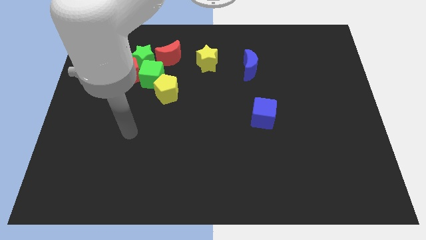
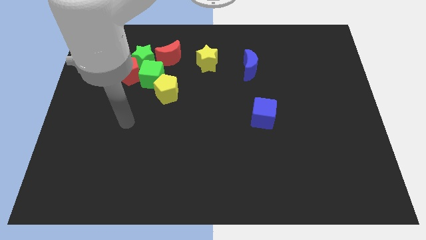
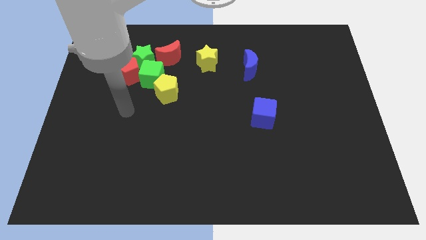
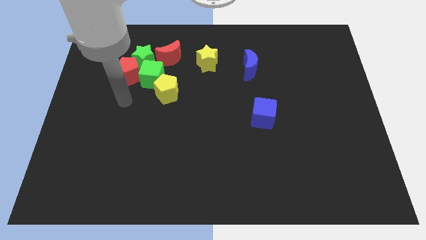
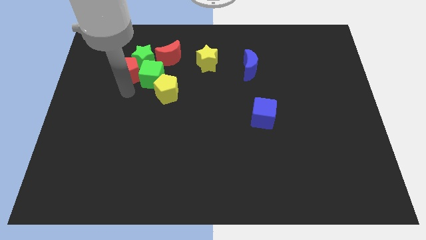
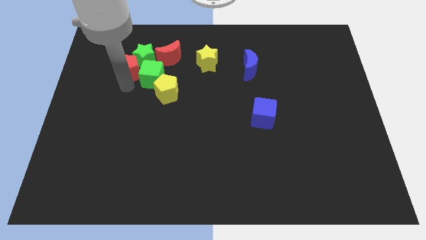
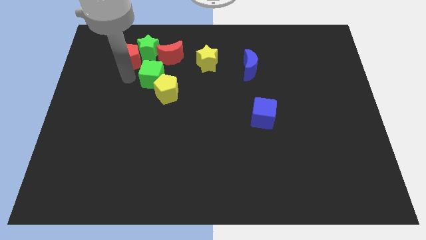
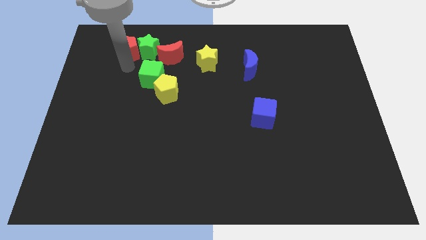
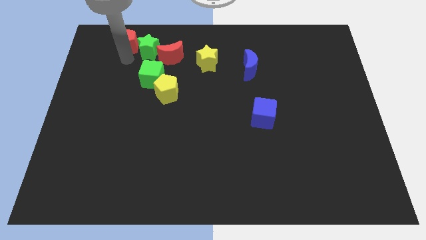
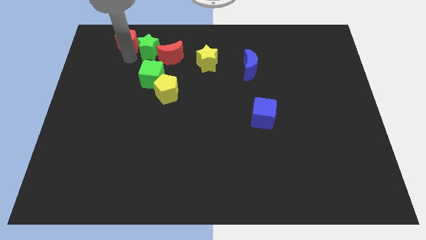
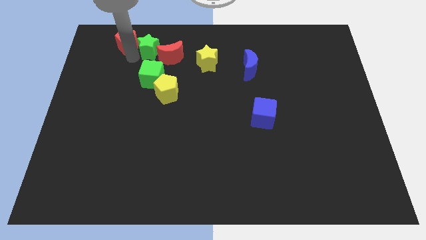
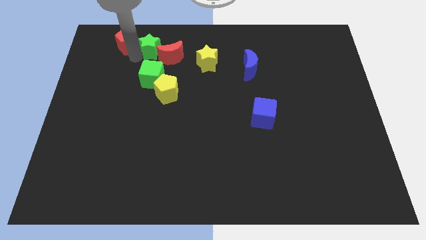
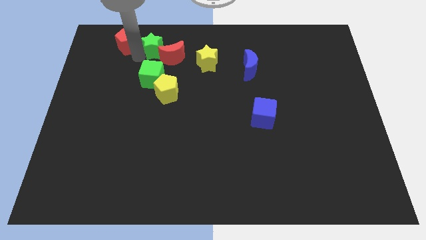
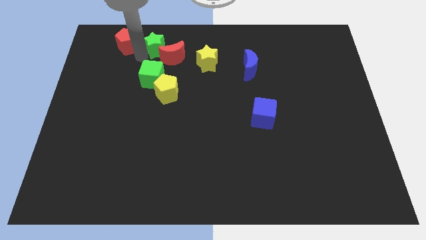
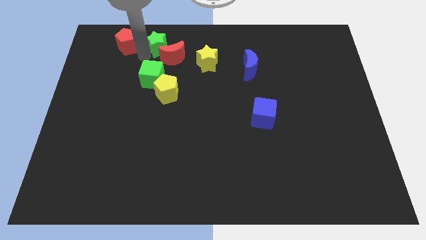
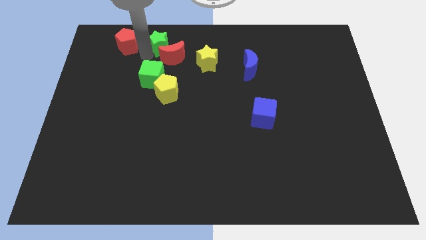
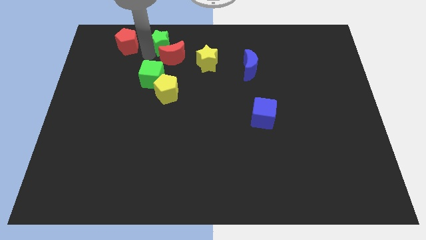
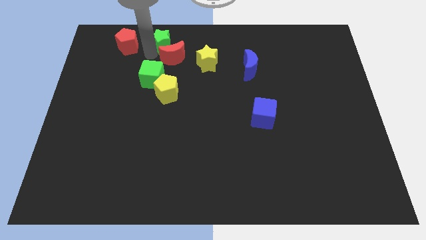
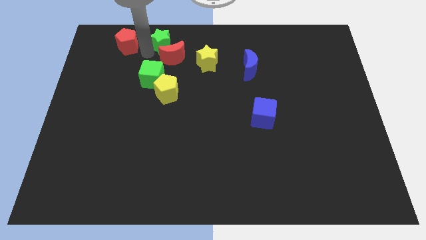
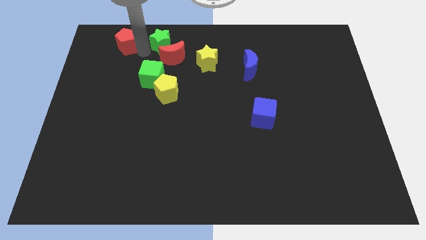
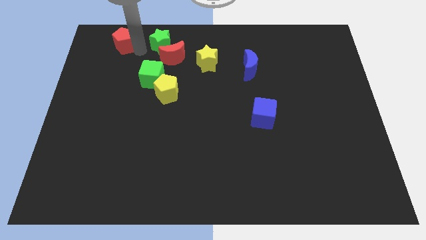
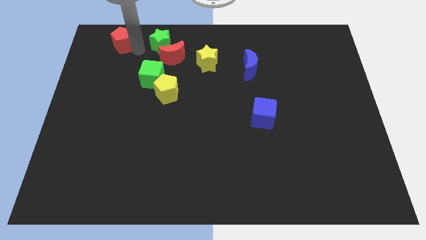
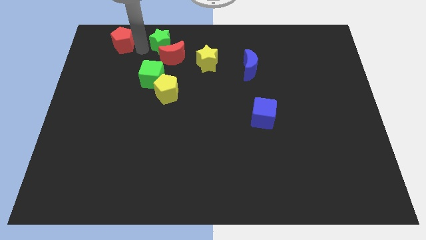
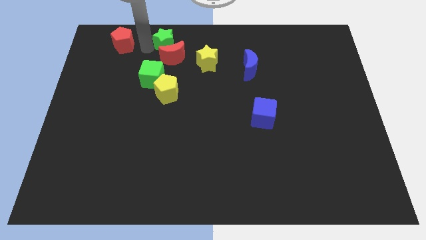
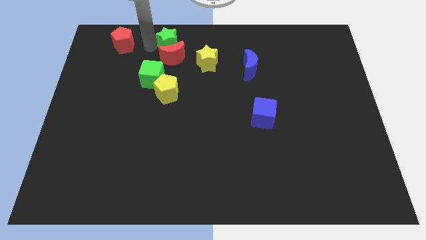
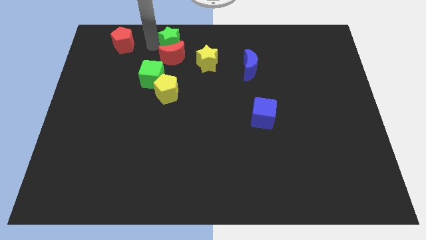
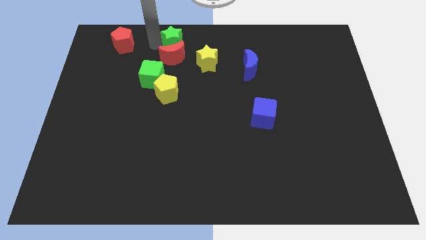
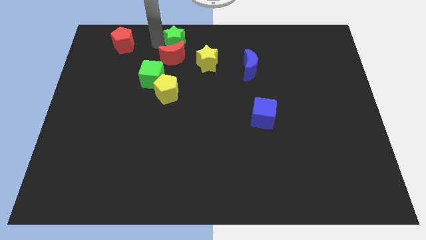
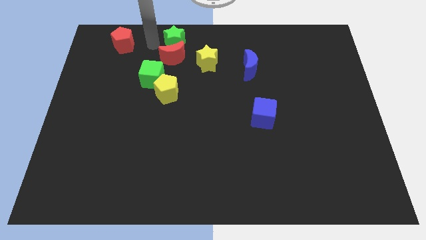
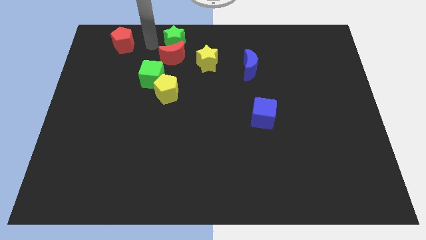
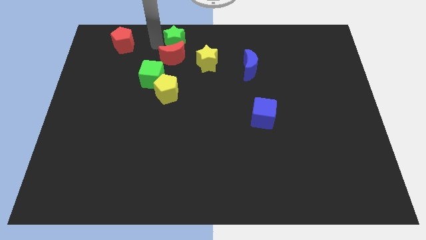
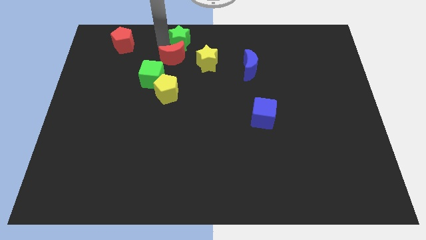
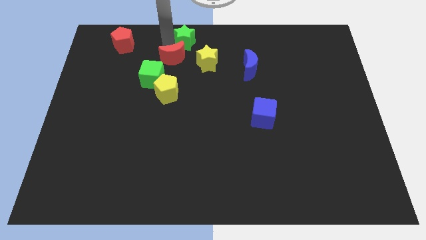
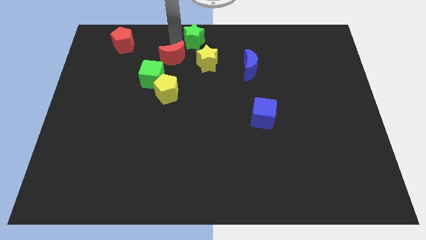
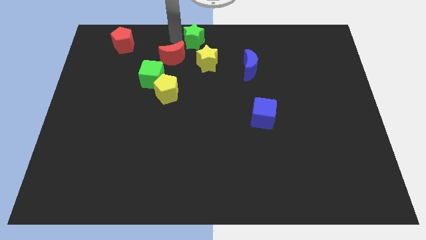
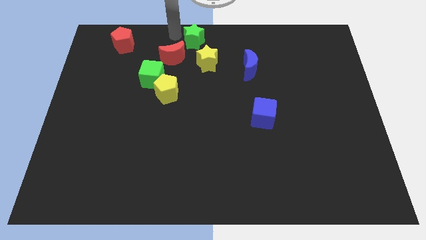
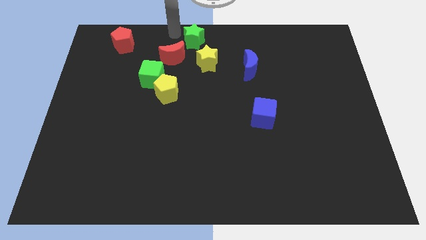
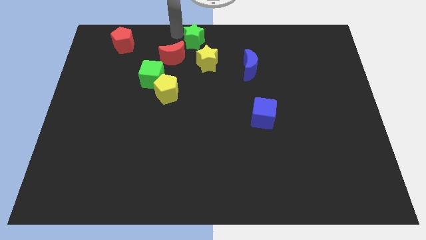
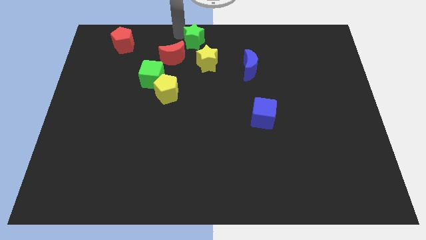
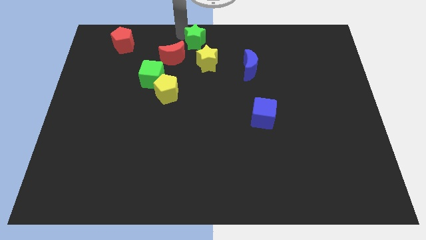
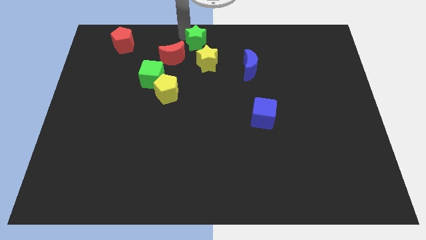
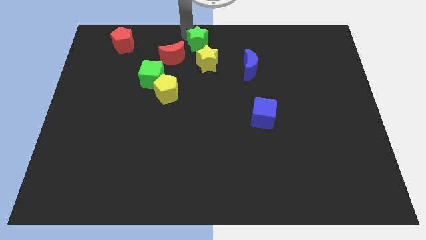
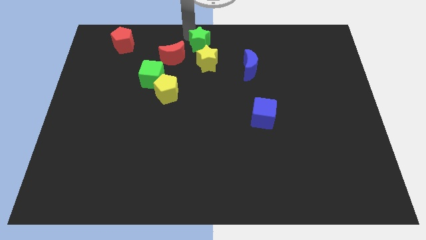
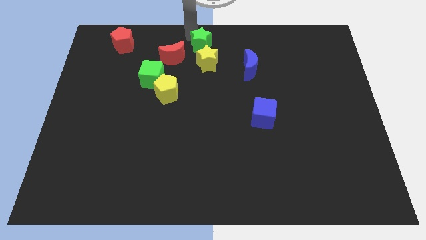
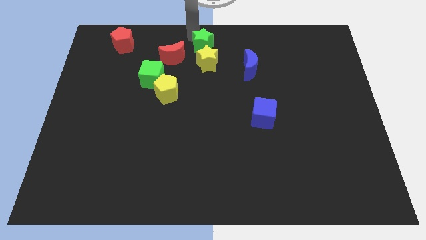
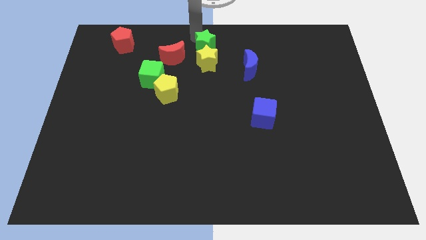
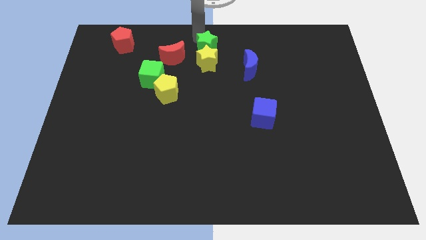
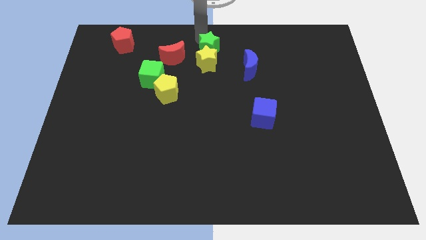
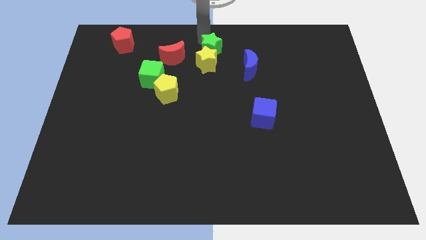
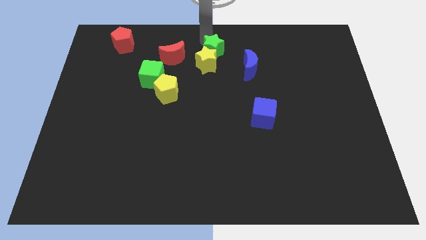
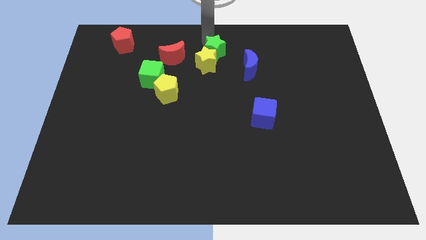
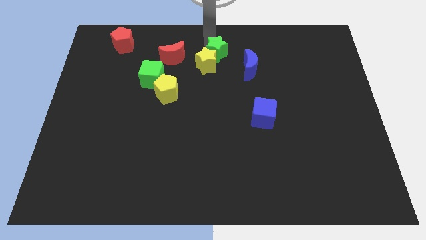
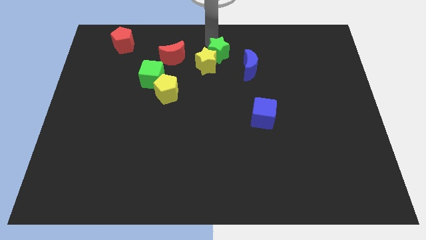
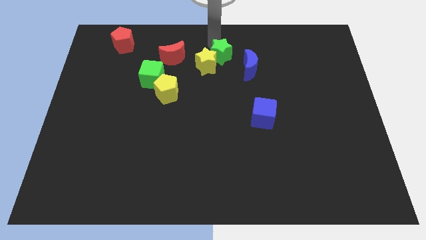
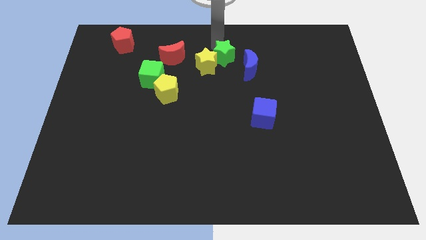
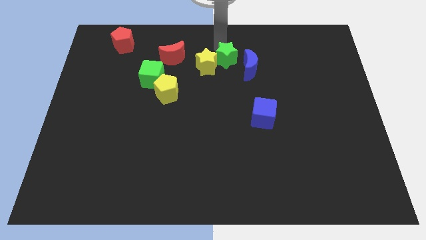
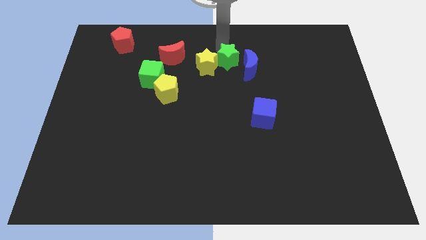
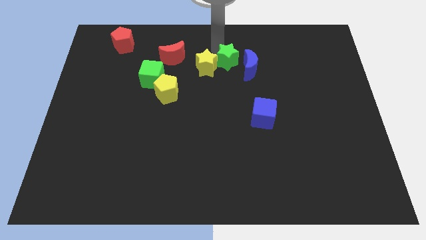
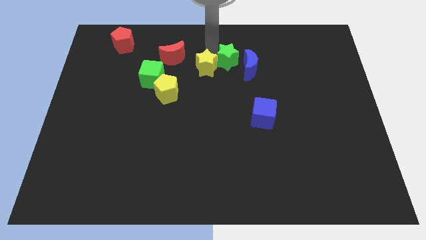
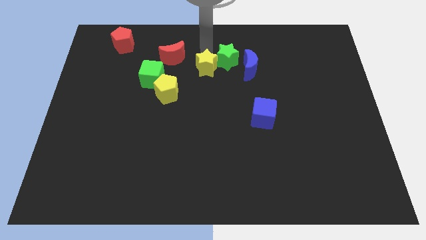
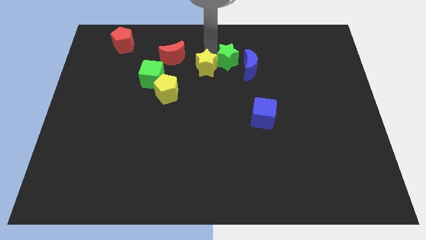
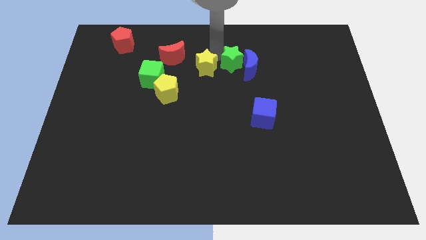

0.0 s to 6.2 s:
push the green star towards the blue moon

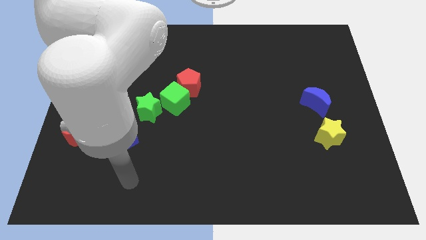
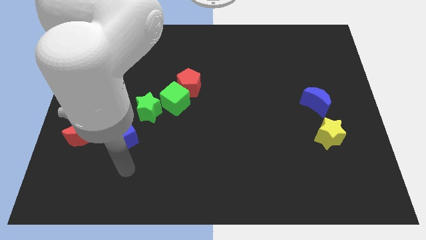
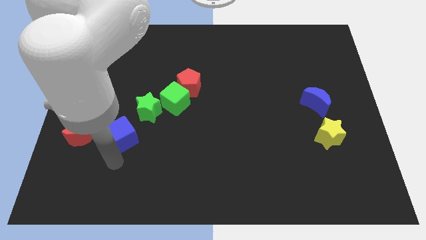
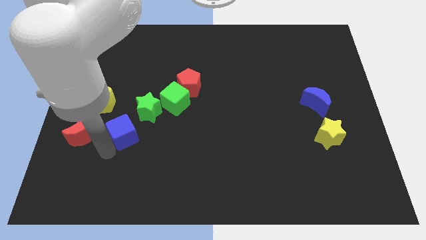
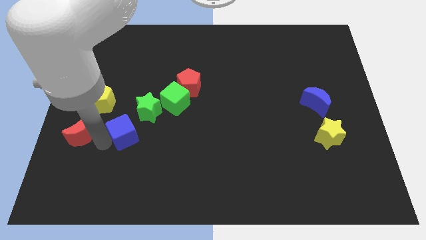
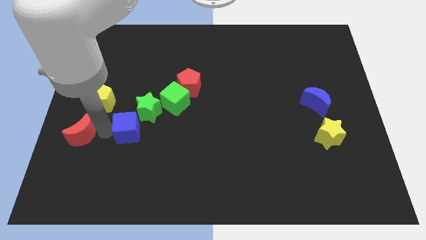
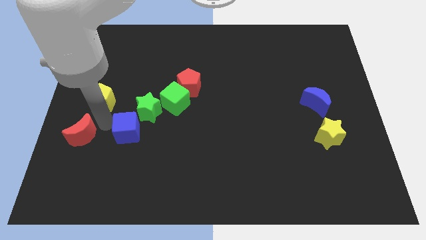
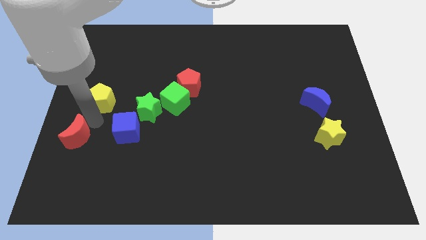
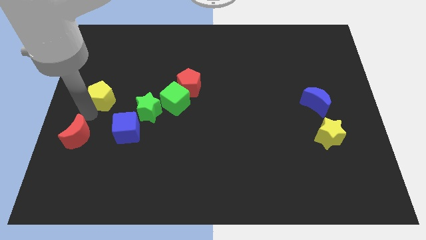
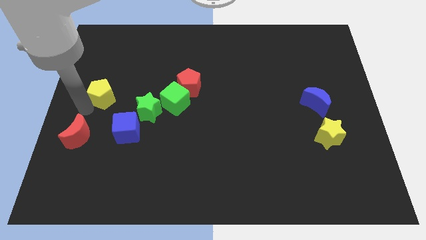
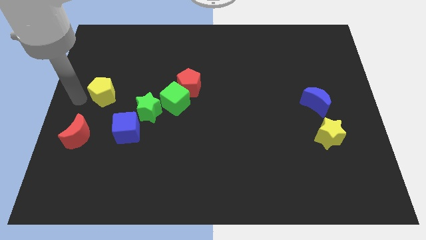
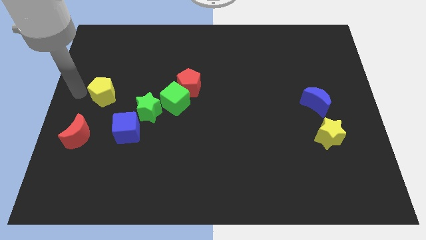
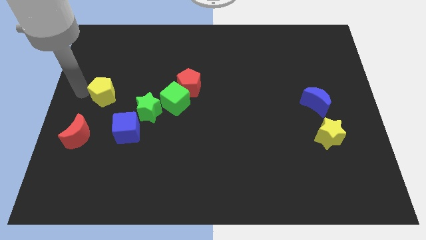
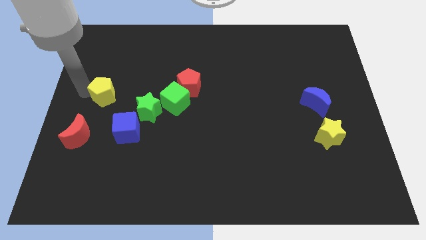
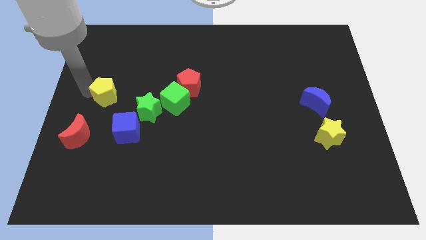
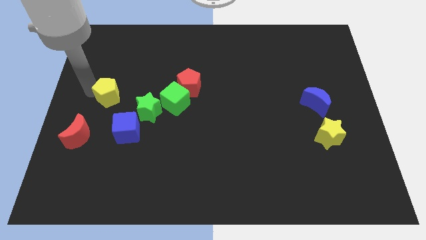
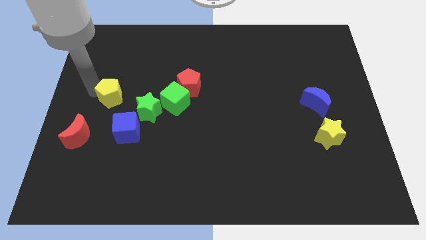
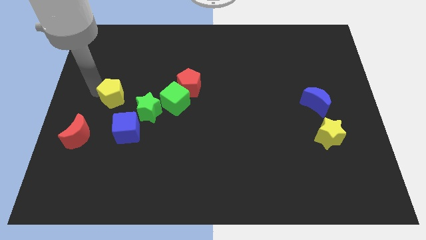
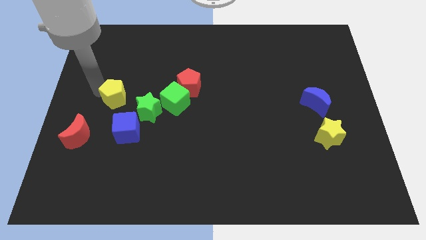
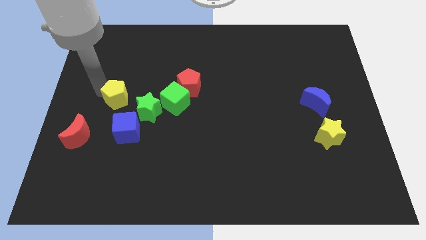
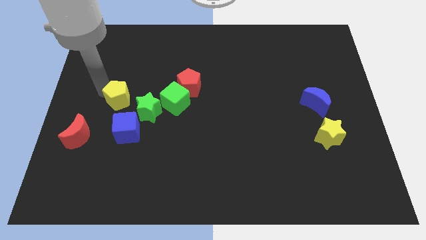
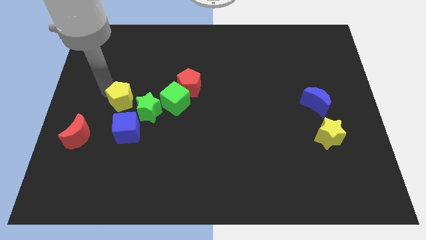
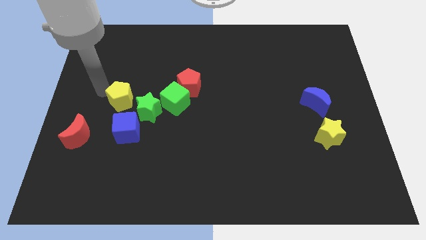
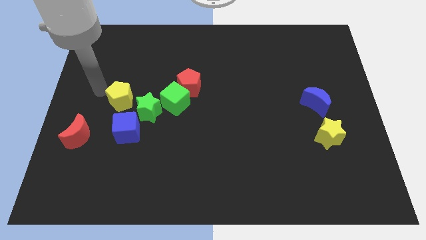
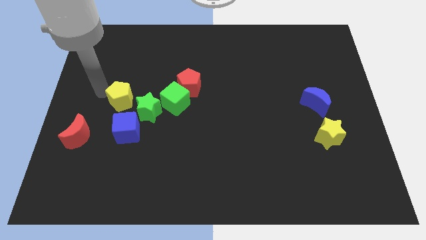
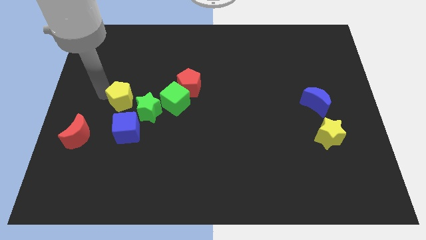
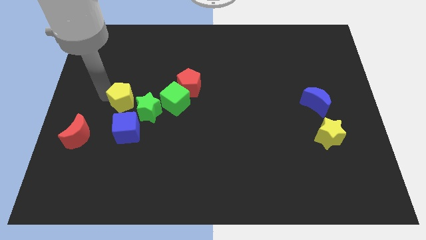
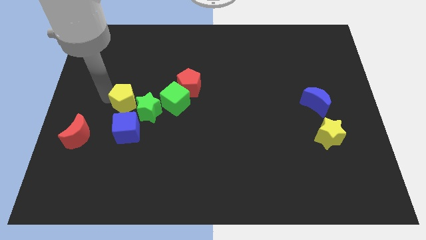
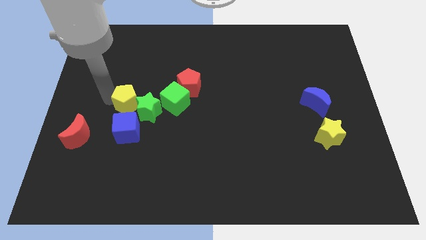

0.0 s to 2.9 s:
push the yellow pentagon close to the green star
